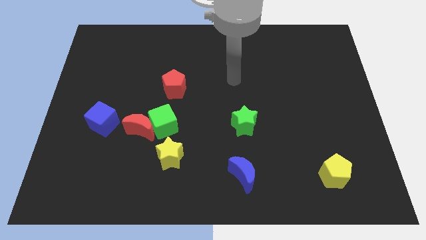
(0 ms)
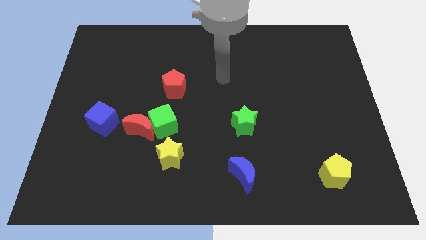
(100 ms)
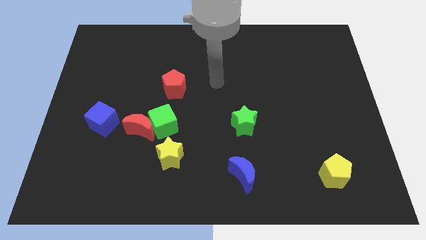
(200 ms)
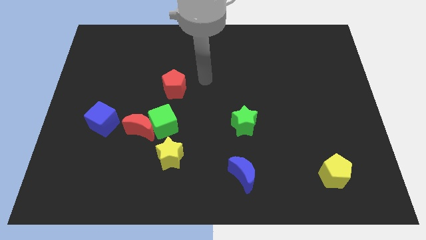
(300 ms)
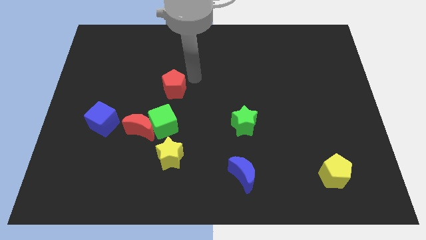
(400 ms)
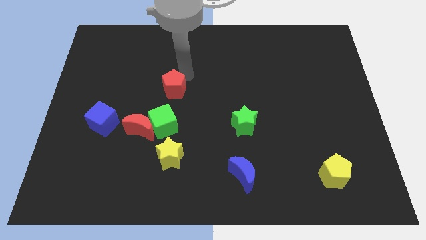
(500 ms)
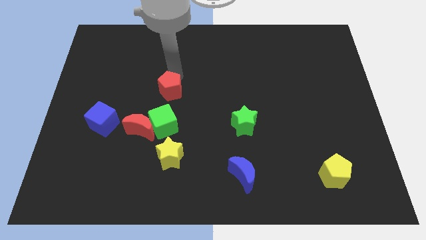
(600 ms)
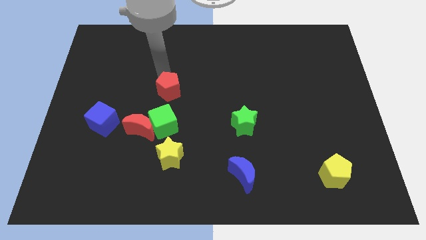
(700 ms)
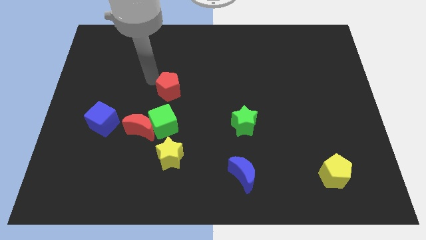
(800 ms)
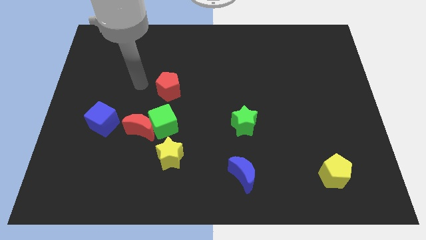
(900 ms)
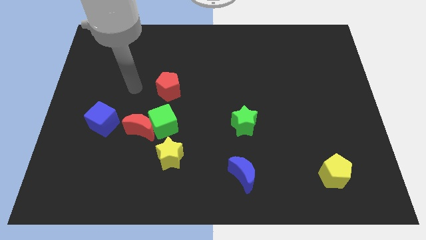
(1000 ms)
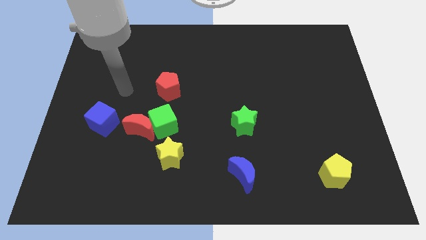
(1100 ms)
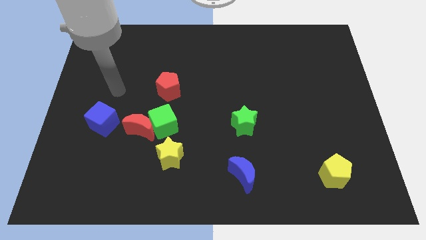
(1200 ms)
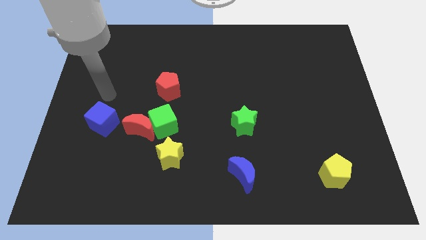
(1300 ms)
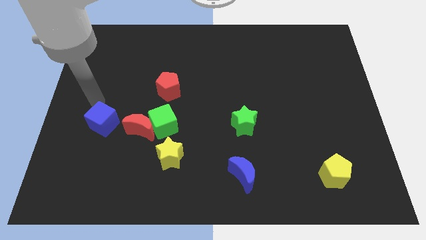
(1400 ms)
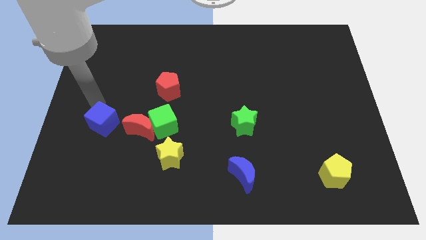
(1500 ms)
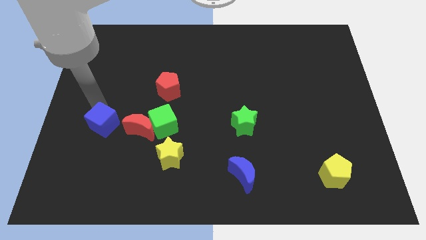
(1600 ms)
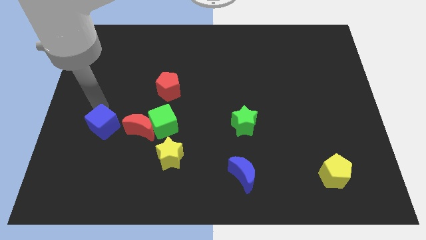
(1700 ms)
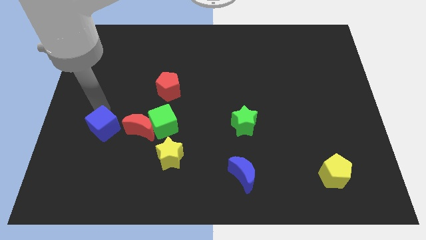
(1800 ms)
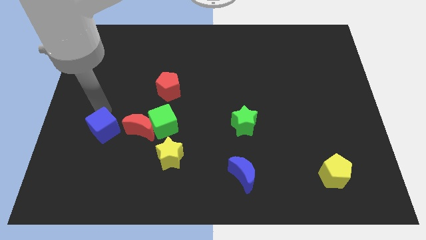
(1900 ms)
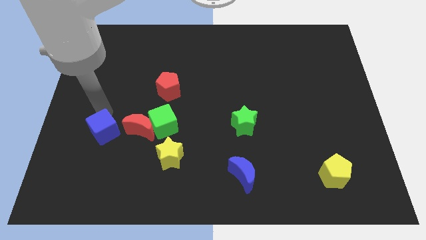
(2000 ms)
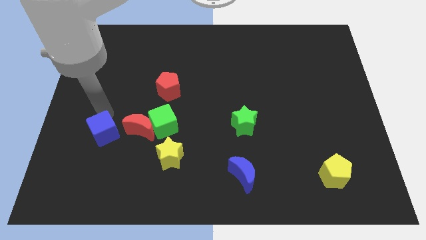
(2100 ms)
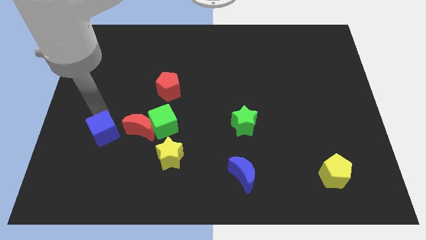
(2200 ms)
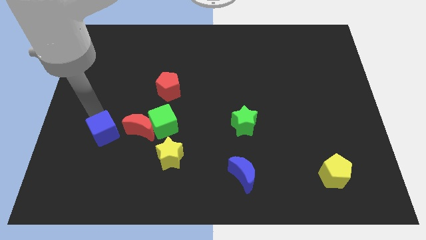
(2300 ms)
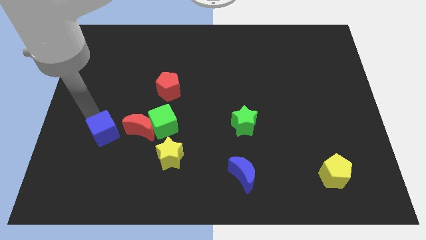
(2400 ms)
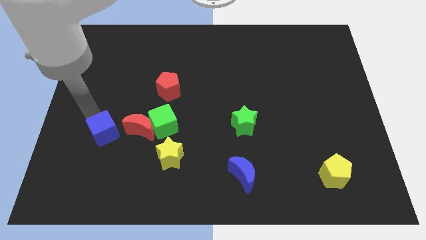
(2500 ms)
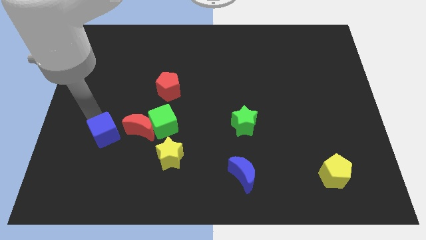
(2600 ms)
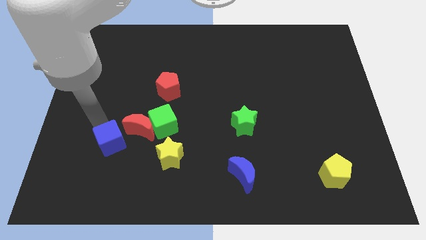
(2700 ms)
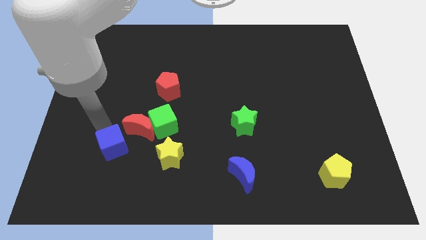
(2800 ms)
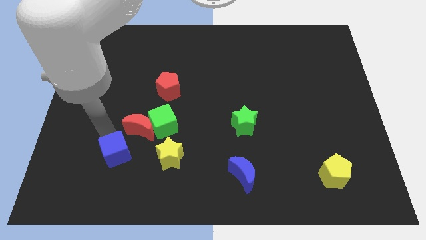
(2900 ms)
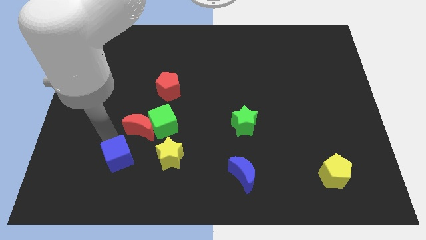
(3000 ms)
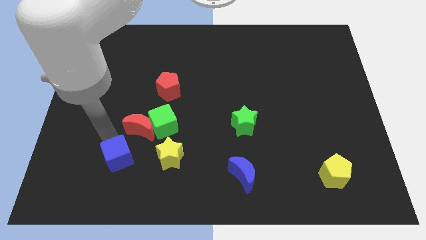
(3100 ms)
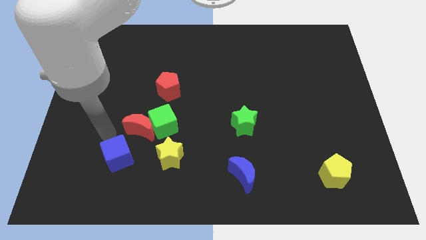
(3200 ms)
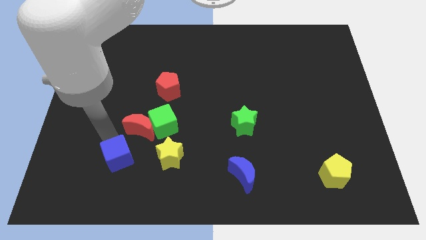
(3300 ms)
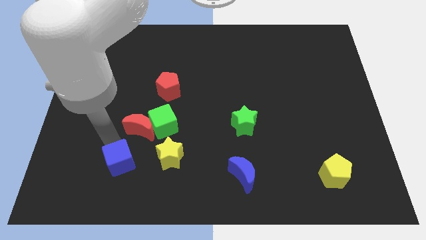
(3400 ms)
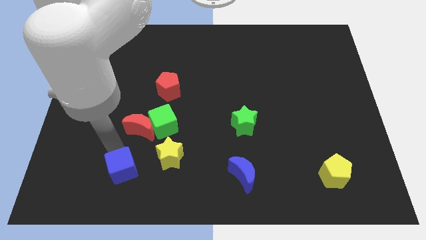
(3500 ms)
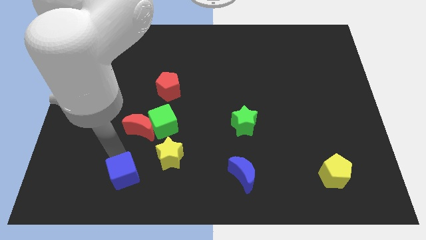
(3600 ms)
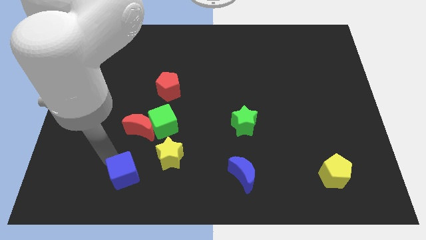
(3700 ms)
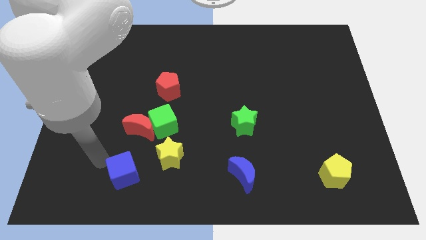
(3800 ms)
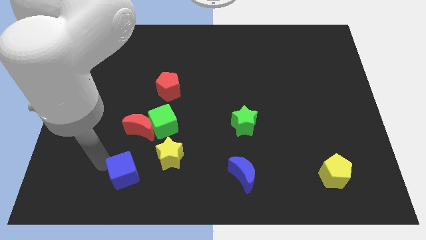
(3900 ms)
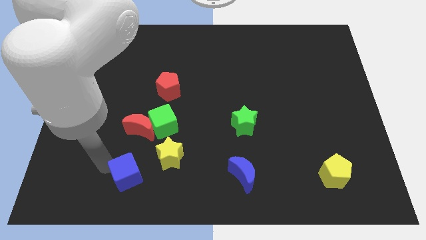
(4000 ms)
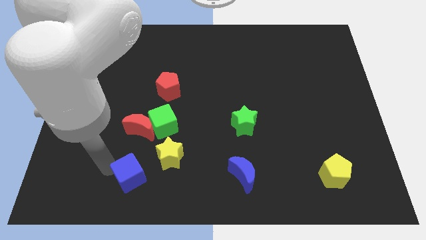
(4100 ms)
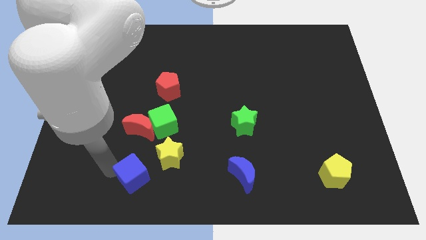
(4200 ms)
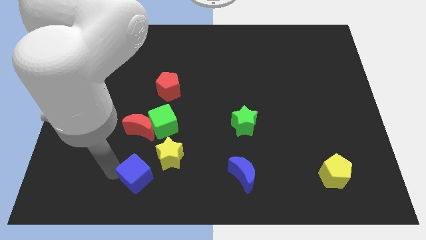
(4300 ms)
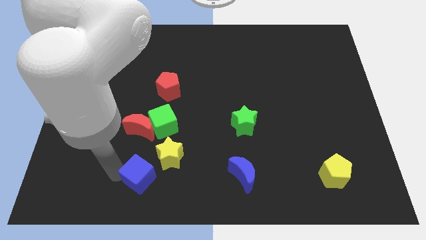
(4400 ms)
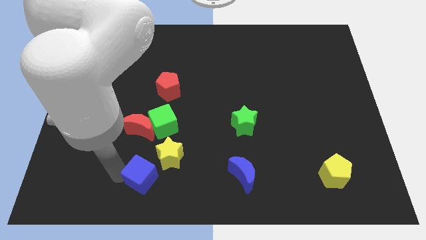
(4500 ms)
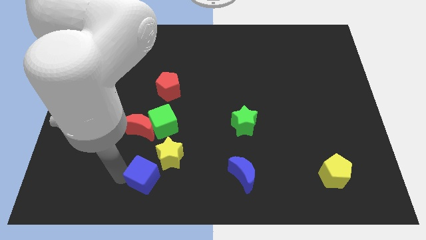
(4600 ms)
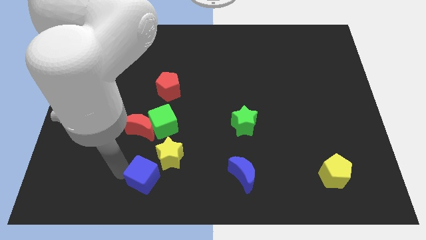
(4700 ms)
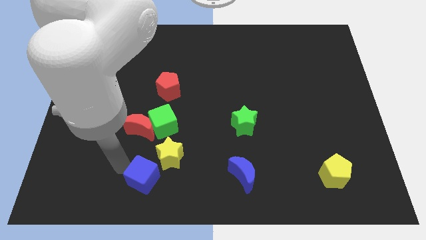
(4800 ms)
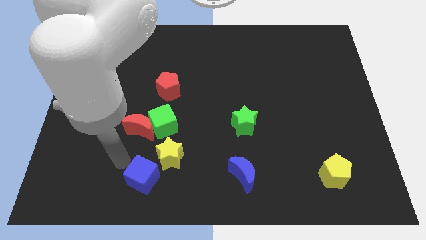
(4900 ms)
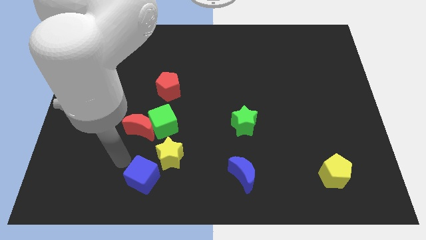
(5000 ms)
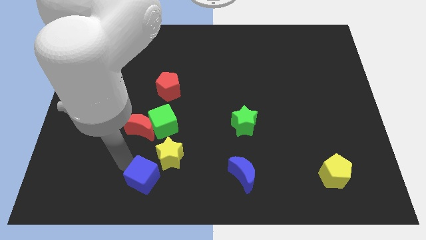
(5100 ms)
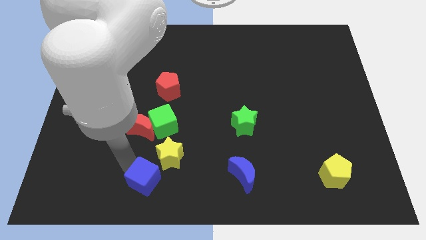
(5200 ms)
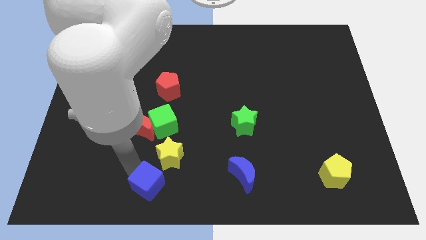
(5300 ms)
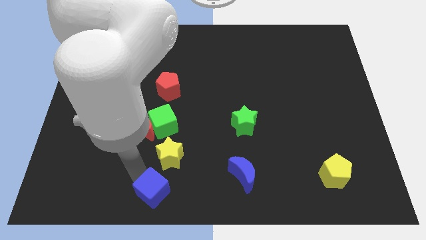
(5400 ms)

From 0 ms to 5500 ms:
slide the blue cube to the bottom side

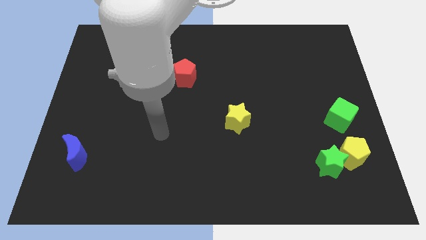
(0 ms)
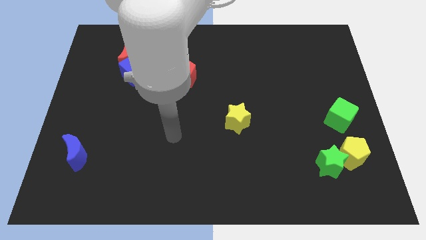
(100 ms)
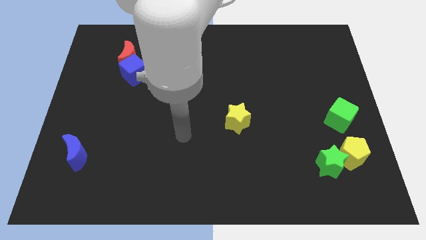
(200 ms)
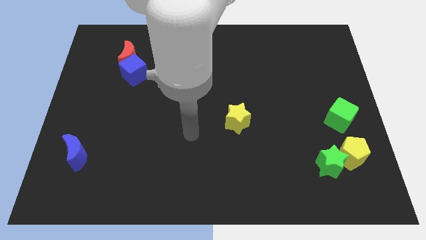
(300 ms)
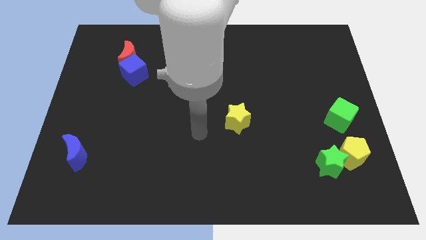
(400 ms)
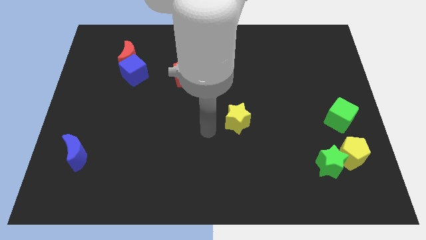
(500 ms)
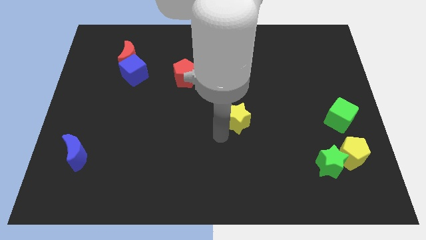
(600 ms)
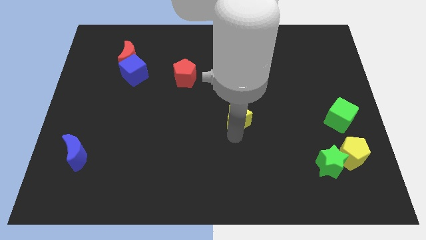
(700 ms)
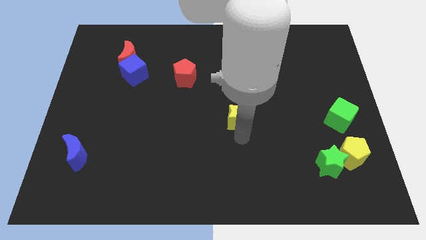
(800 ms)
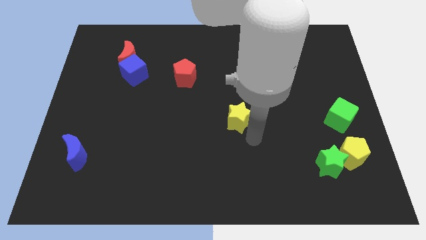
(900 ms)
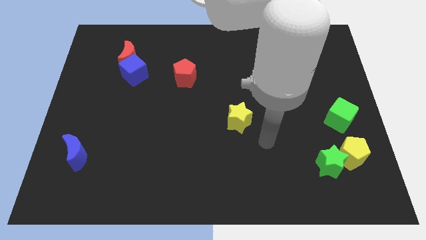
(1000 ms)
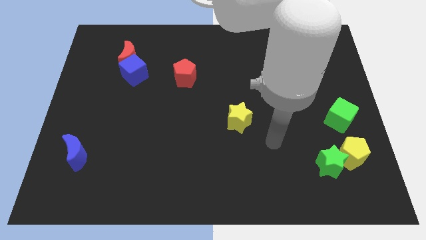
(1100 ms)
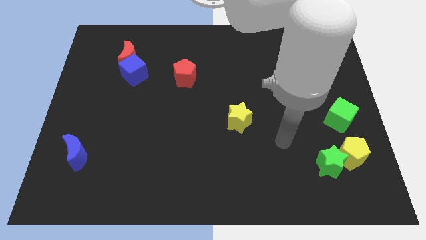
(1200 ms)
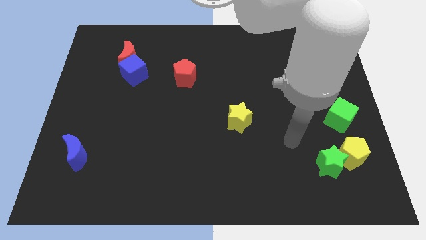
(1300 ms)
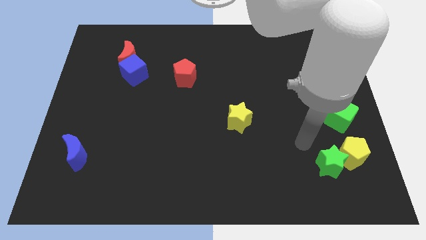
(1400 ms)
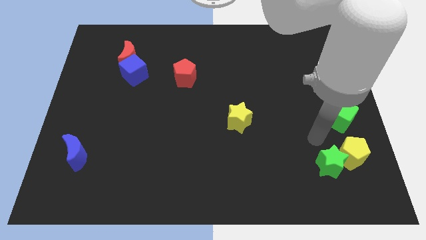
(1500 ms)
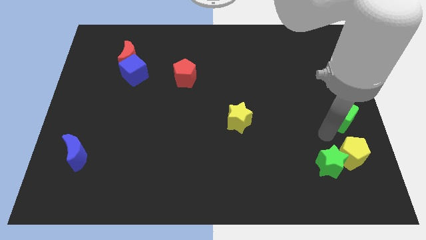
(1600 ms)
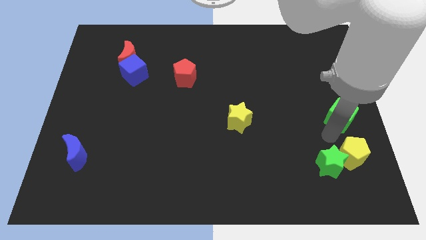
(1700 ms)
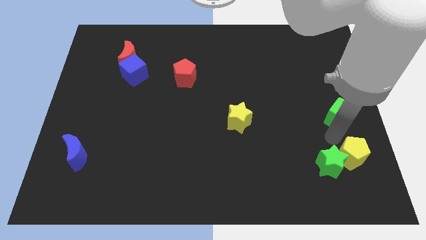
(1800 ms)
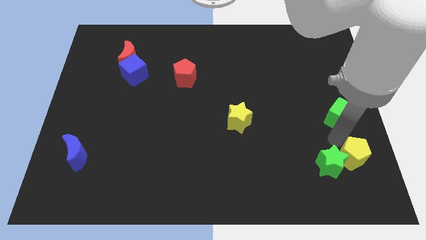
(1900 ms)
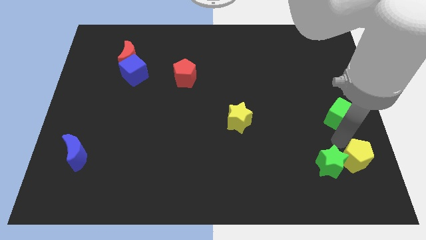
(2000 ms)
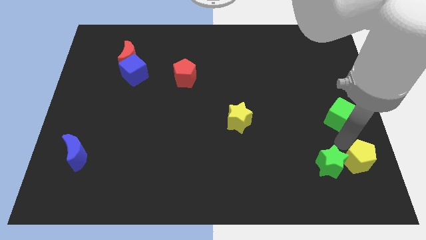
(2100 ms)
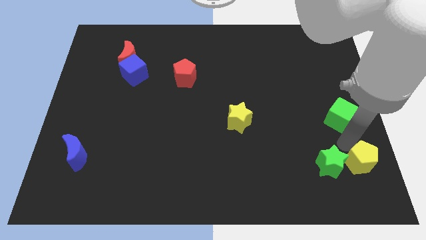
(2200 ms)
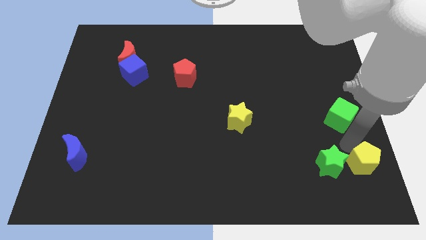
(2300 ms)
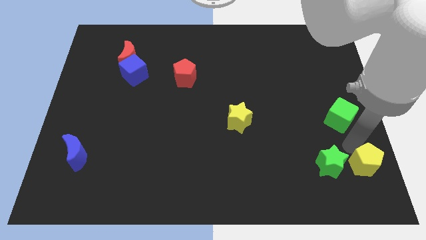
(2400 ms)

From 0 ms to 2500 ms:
push the yellow pentagon to the lower right corner
